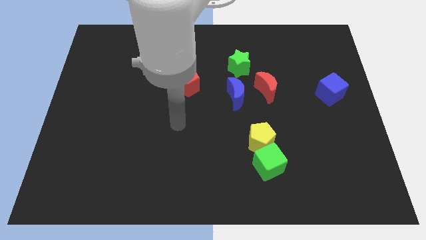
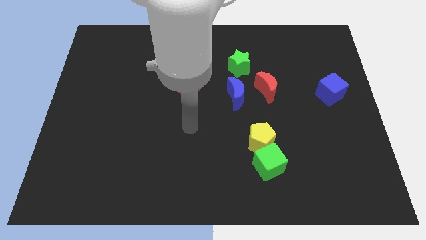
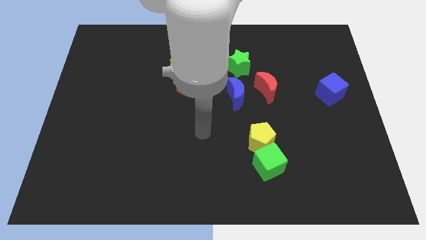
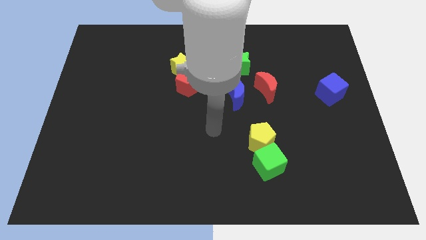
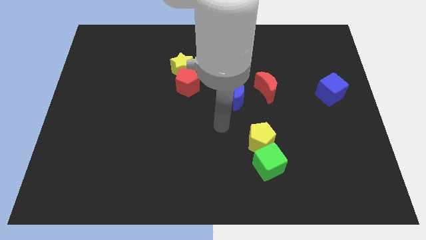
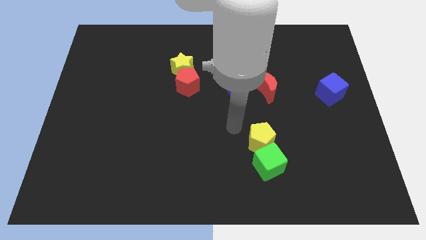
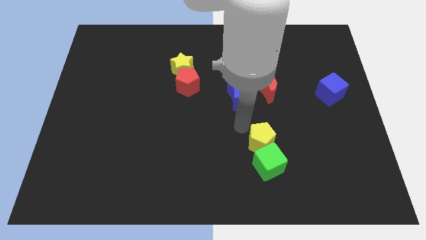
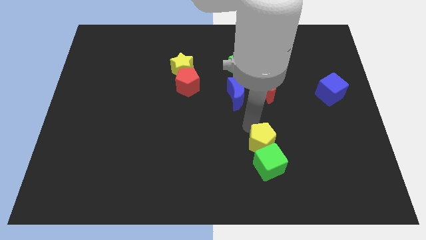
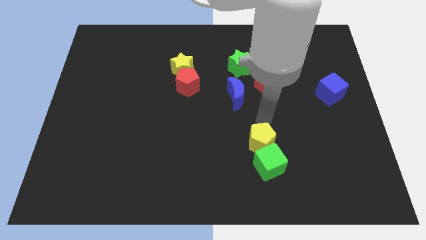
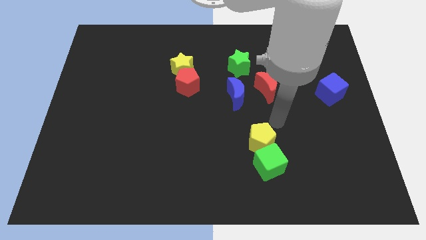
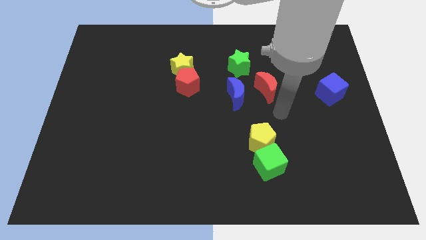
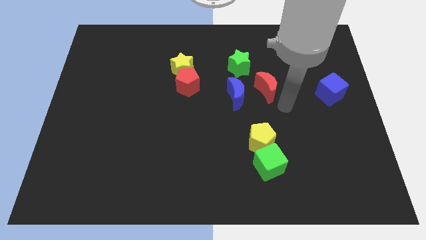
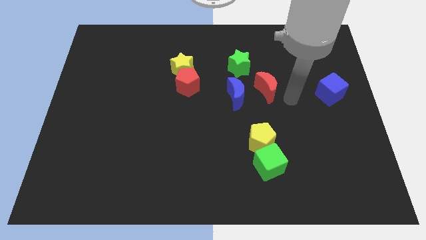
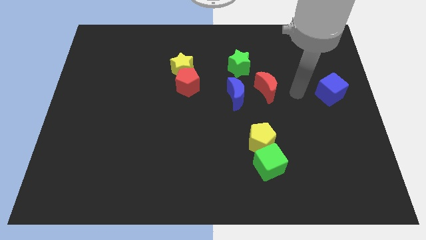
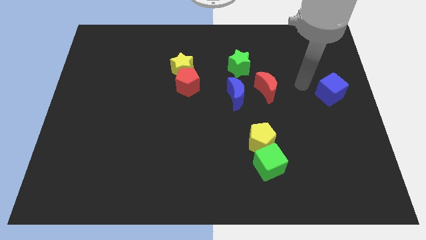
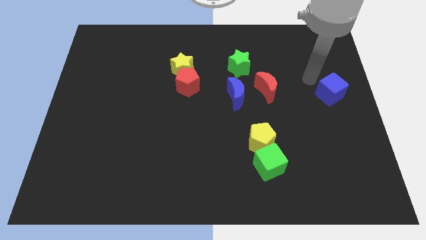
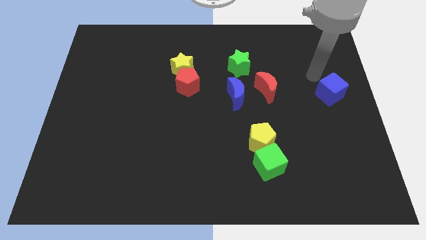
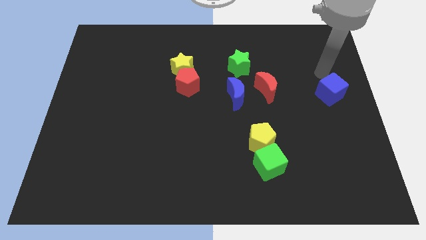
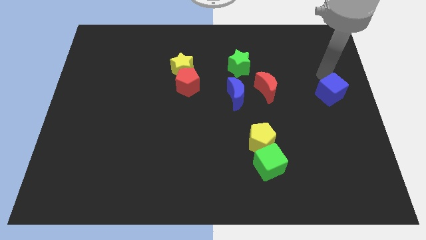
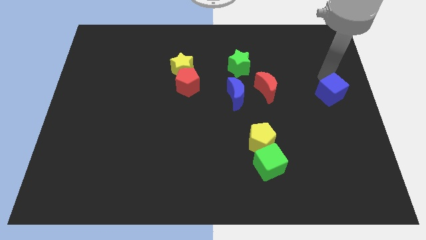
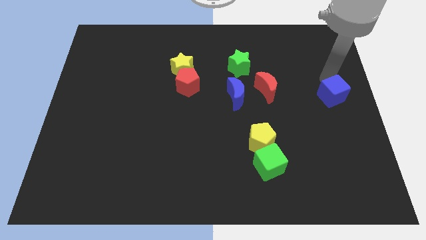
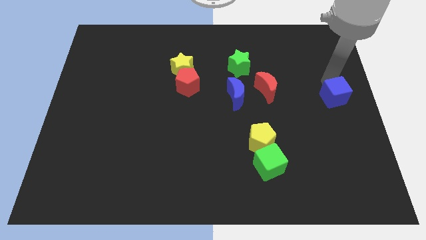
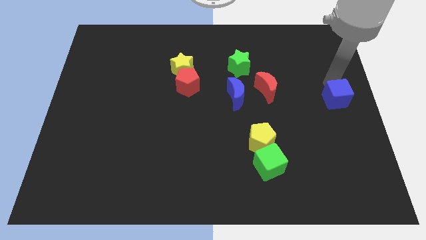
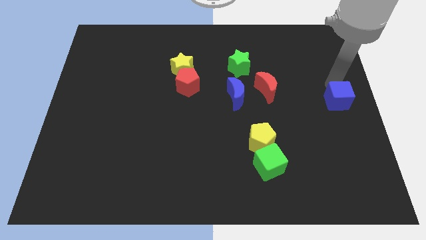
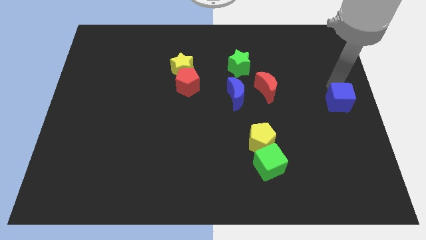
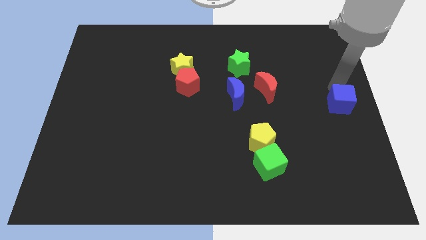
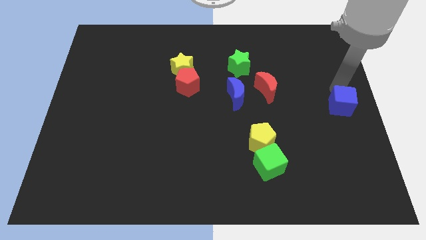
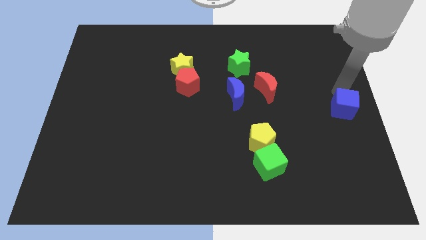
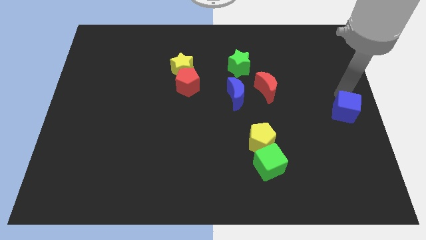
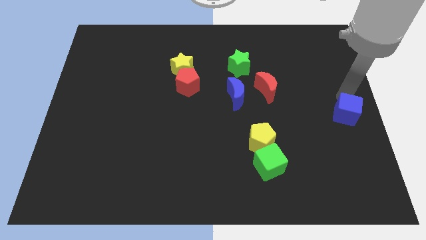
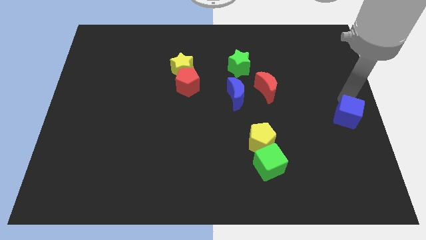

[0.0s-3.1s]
slightly move the blue cube downwards

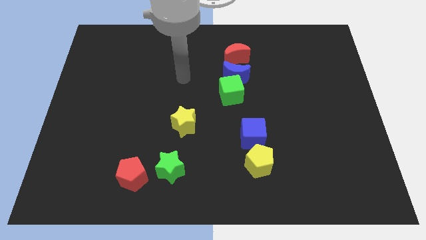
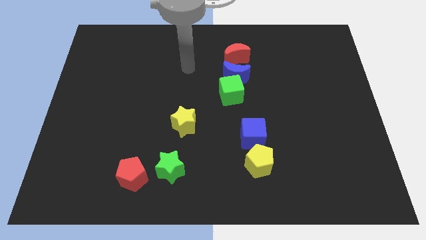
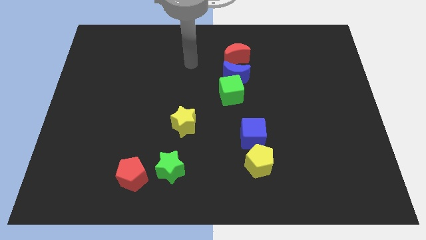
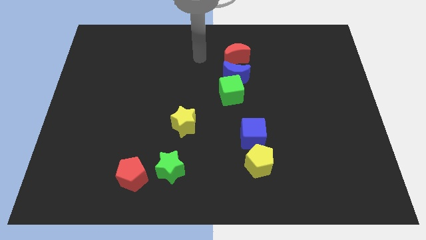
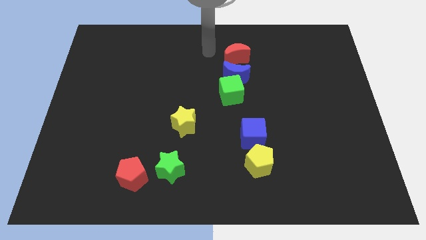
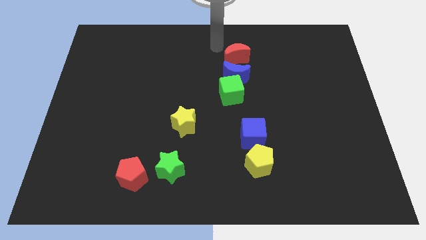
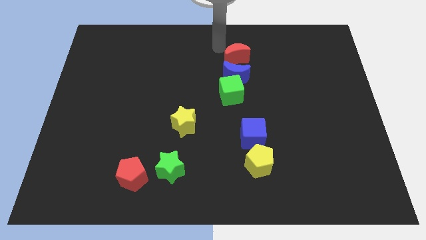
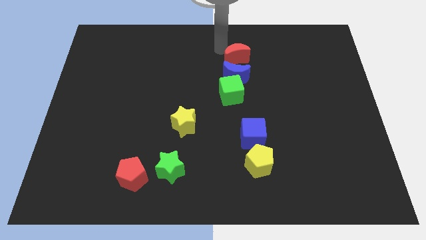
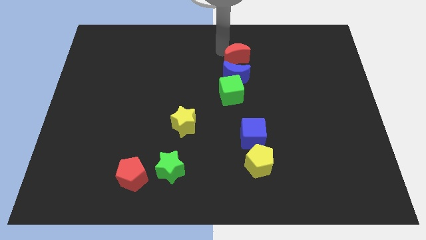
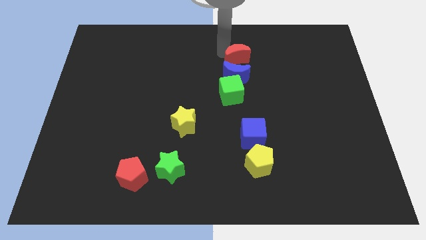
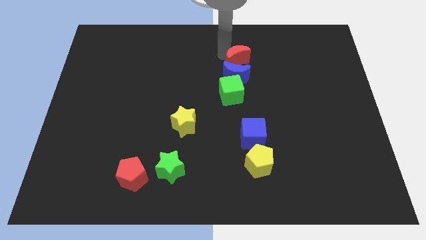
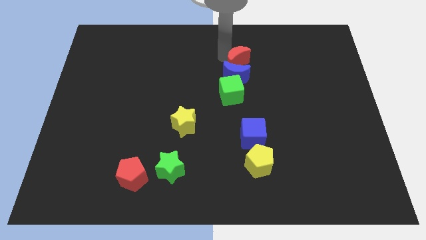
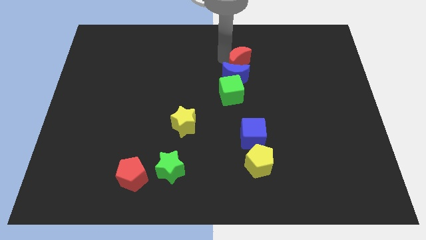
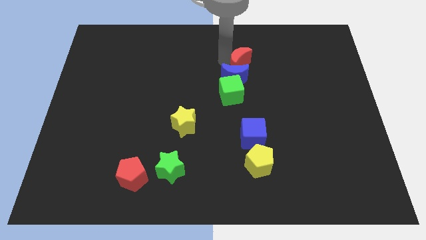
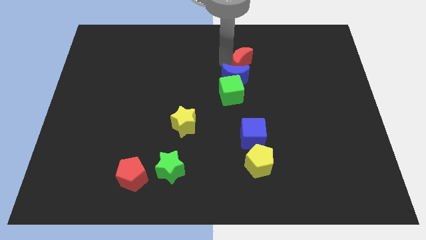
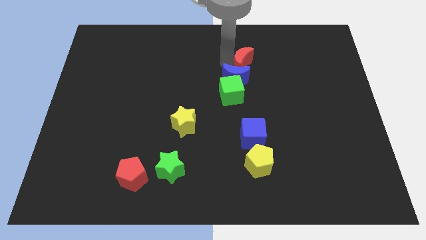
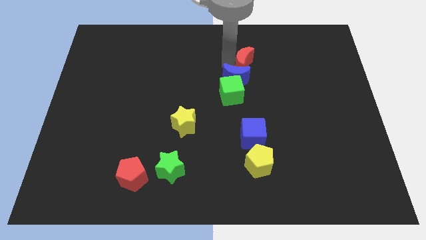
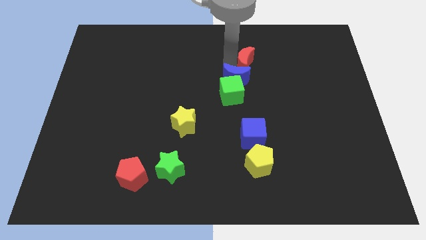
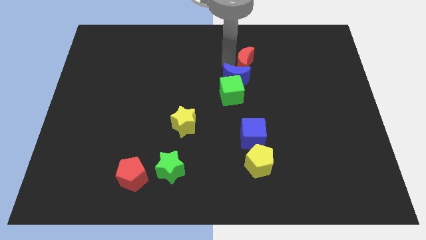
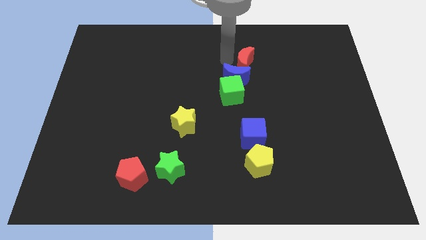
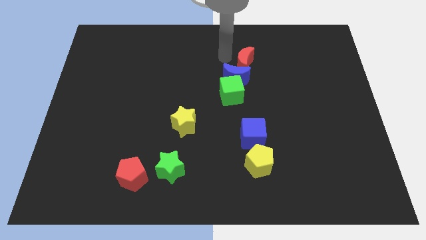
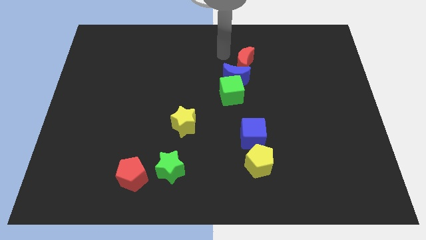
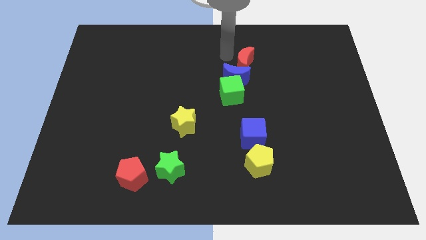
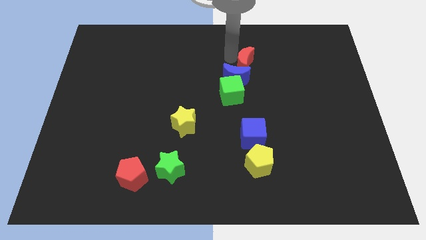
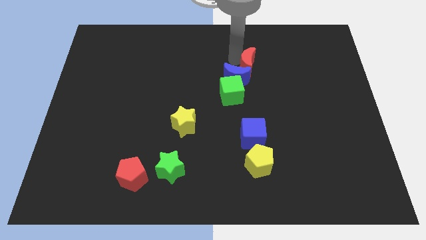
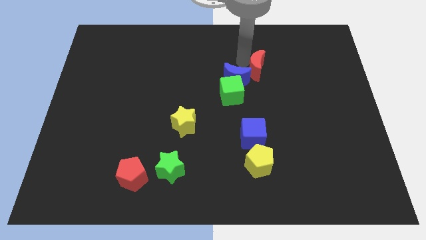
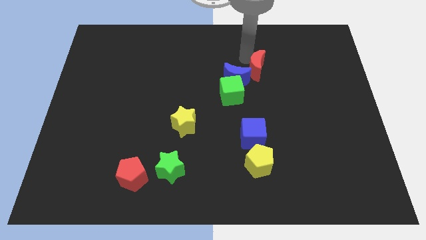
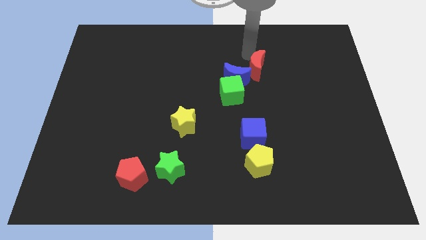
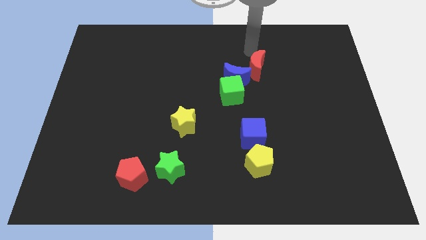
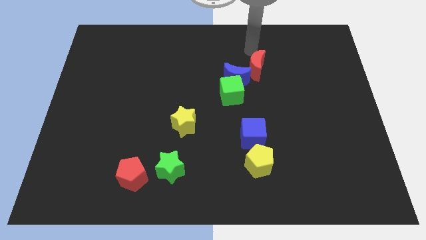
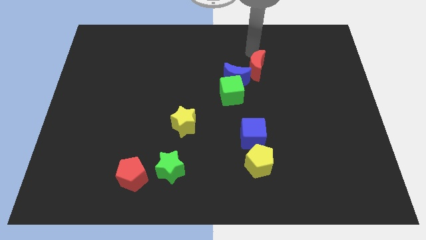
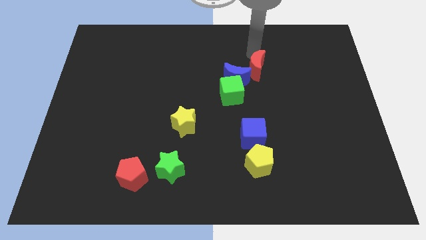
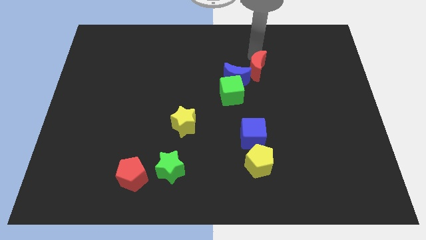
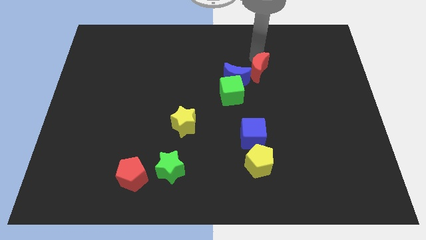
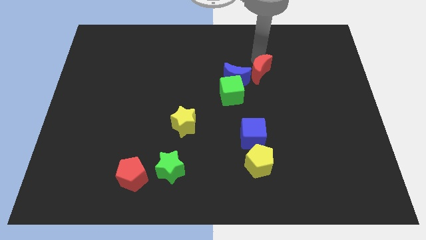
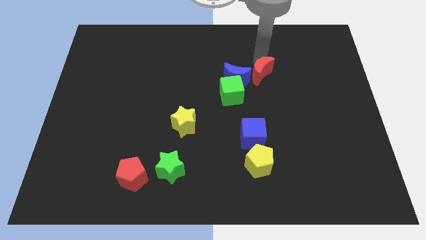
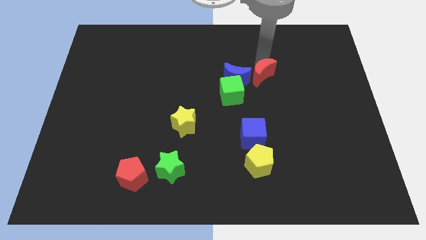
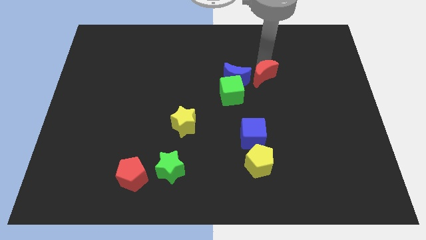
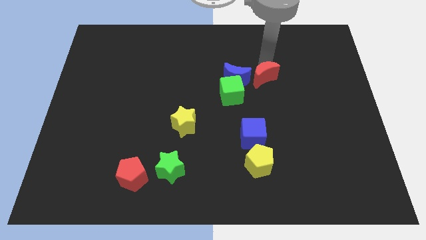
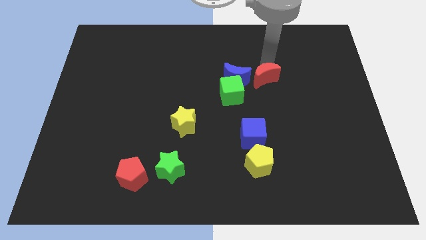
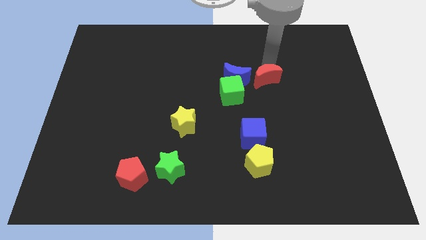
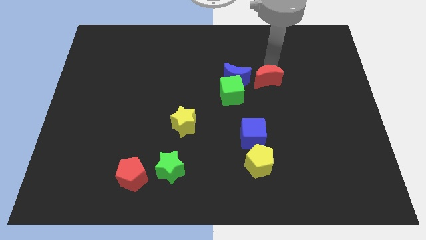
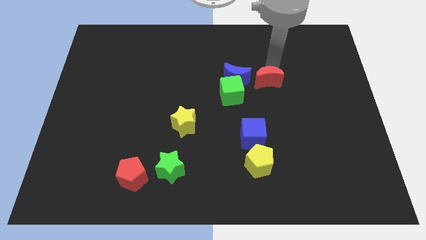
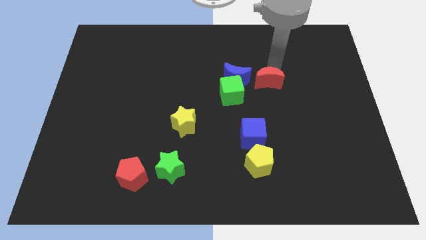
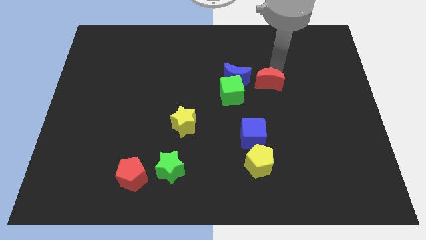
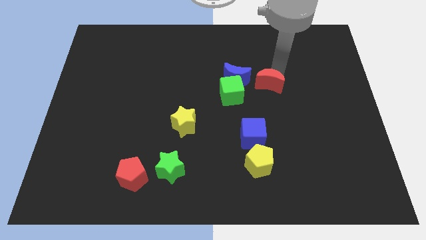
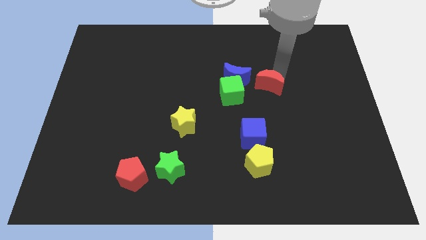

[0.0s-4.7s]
slide the red moon a little bit downwards
